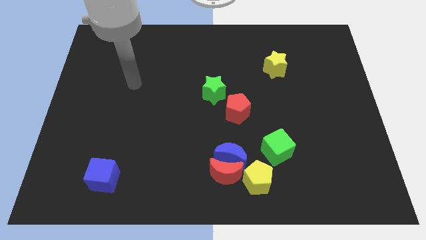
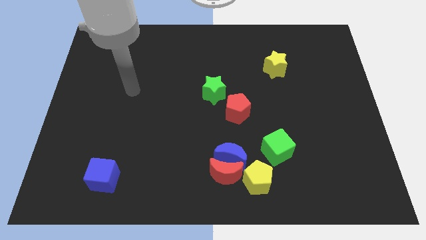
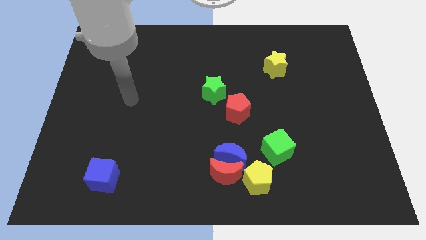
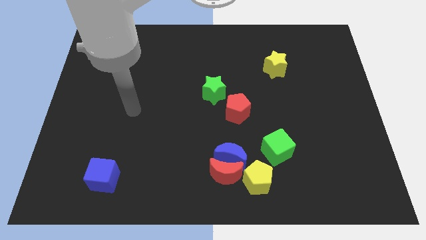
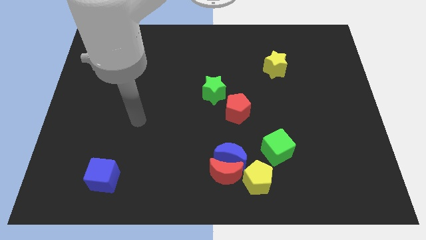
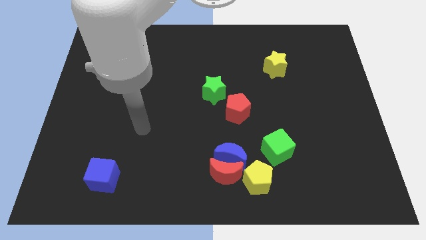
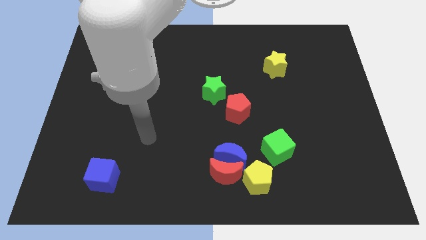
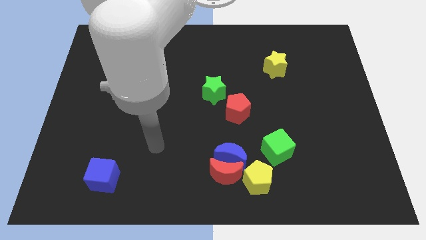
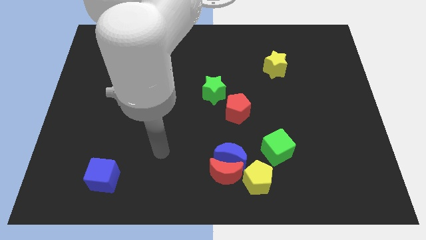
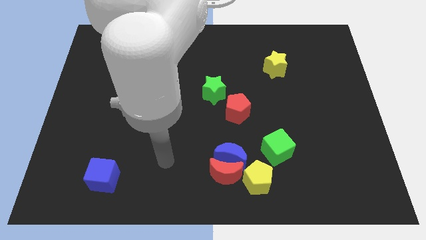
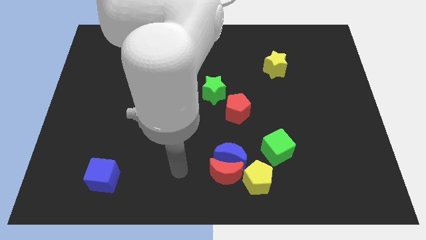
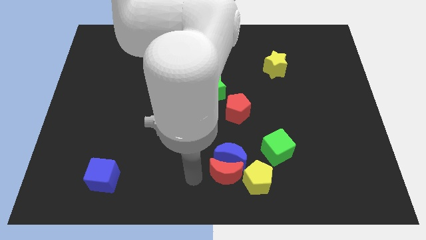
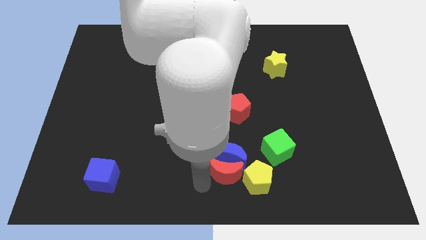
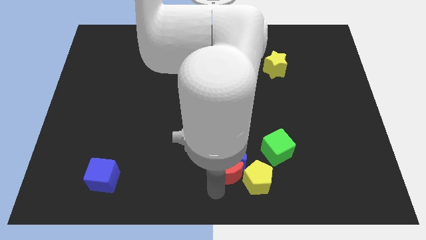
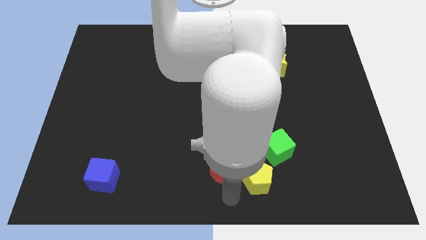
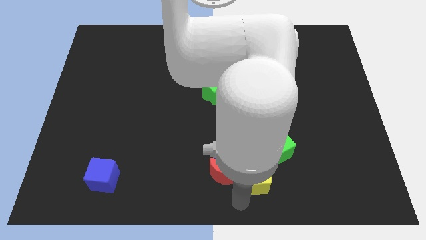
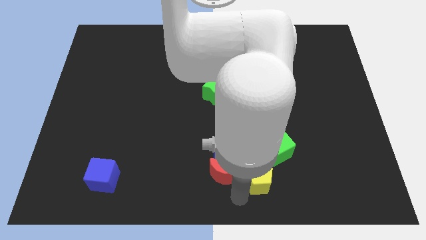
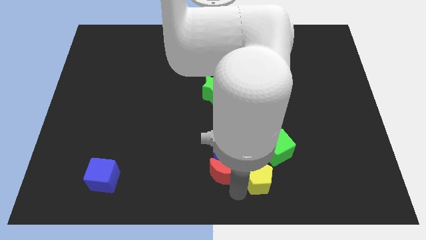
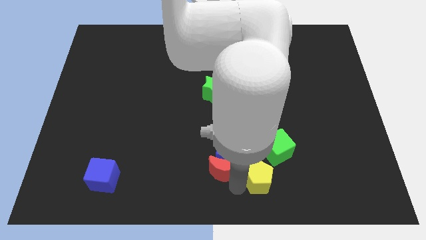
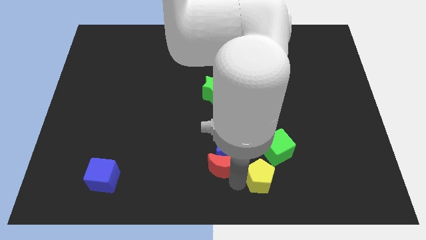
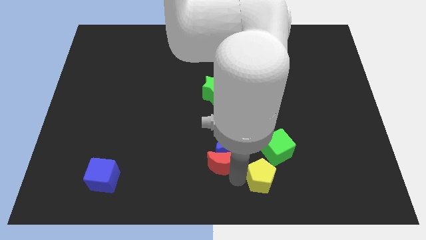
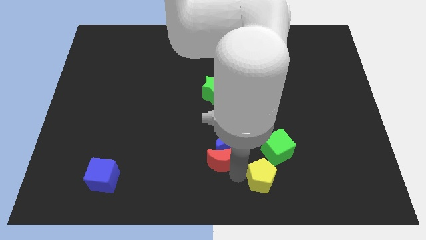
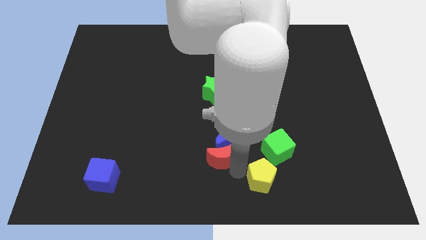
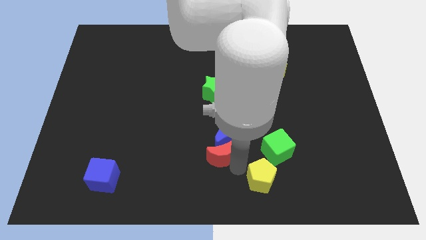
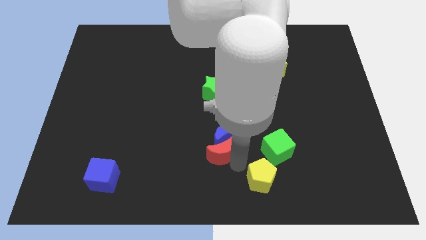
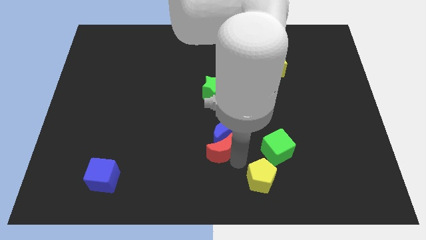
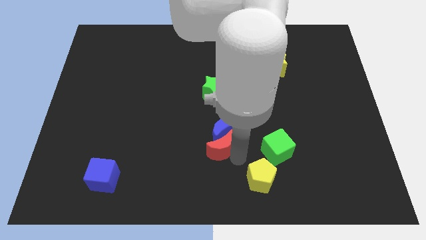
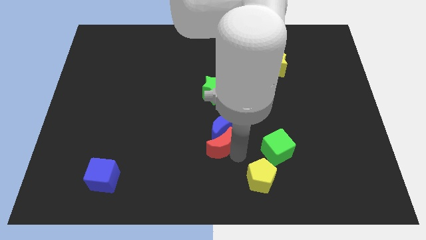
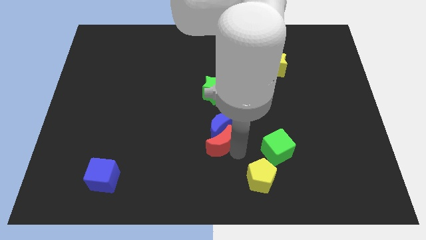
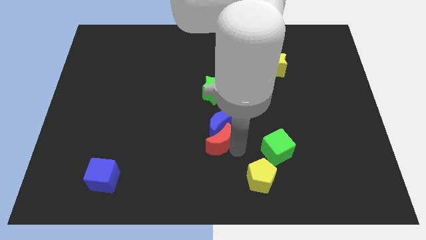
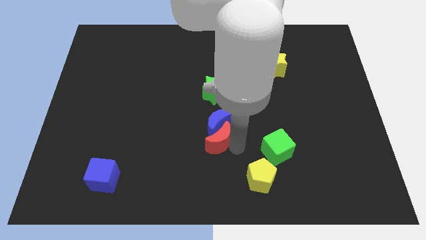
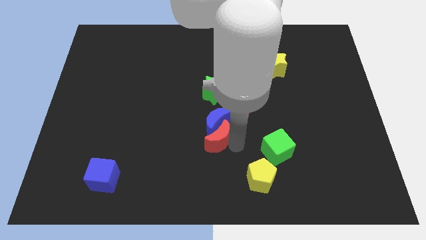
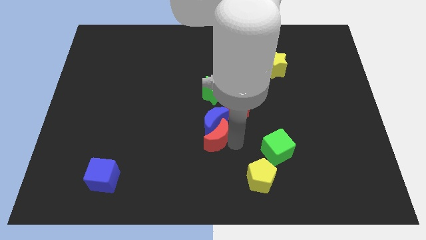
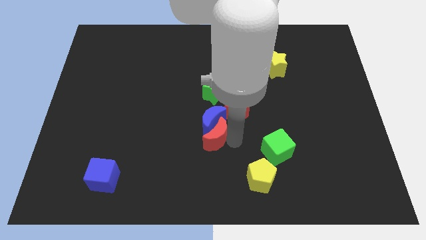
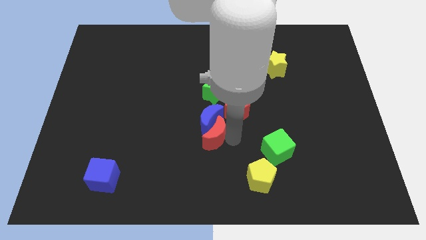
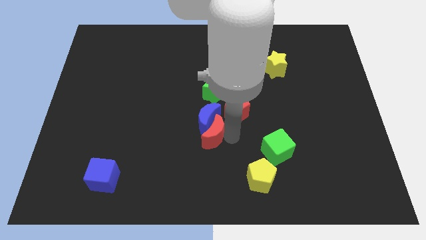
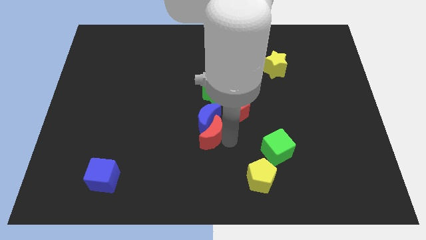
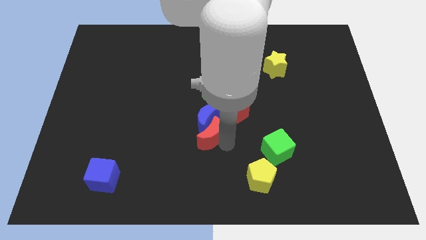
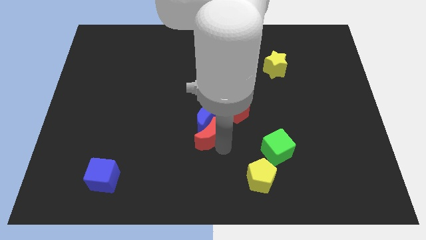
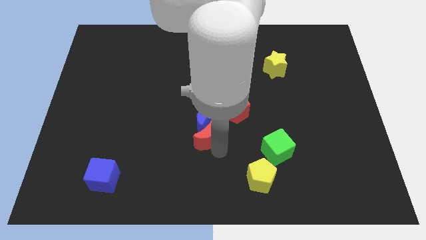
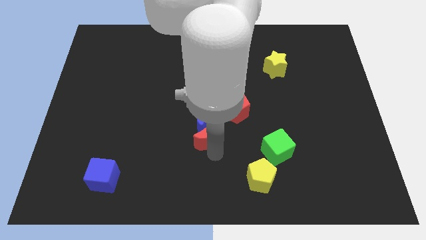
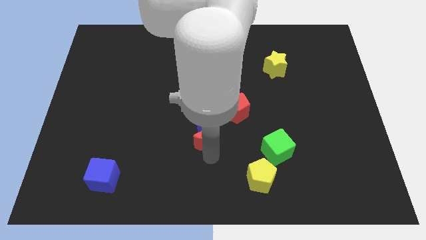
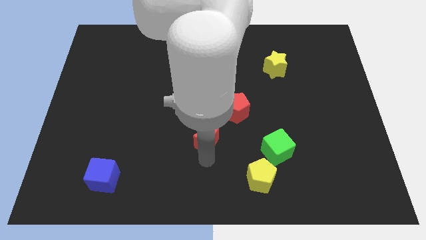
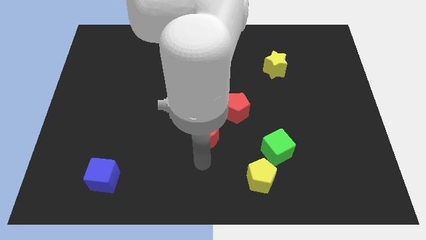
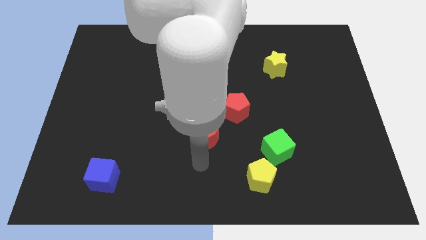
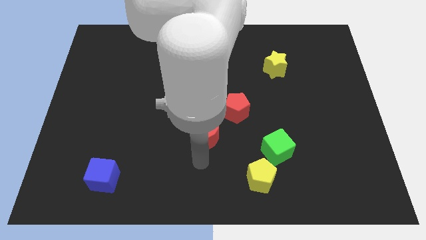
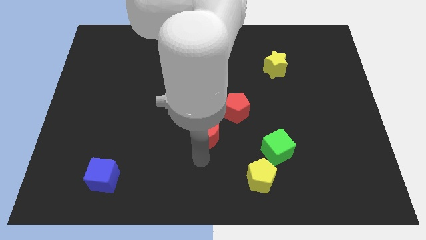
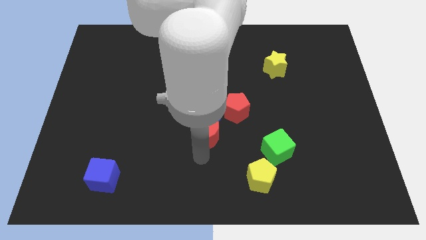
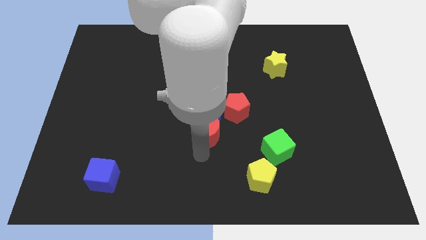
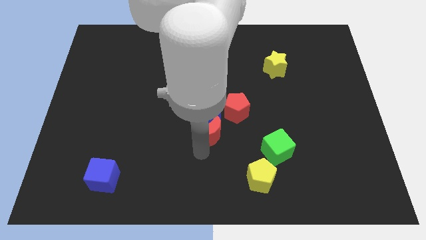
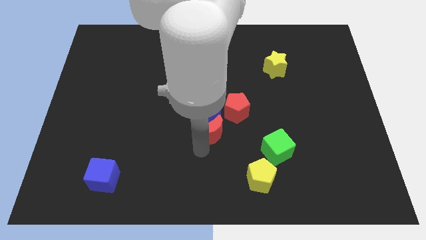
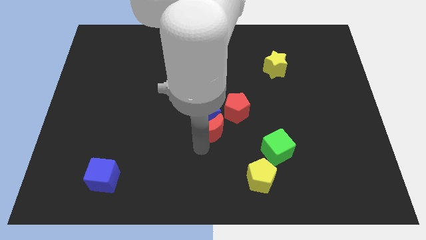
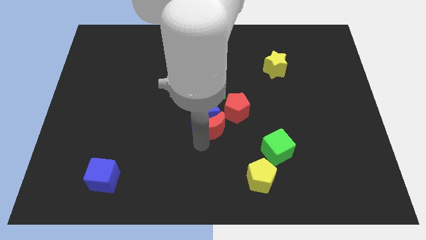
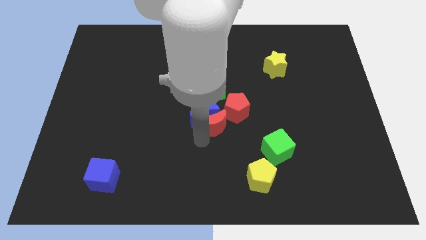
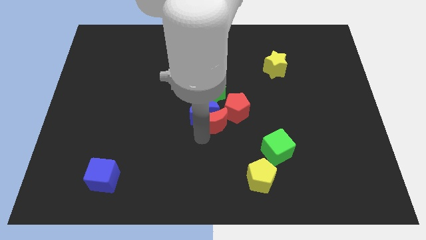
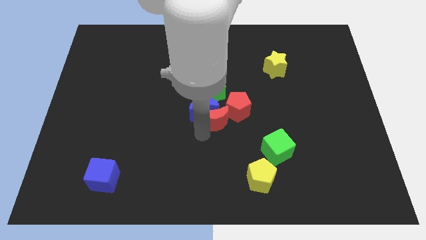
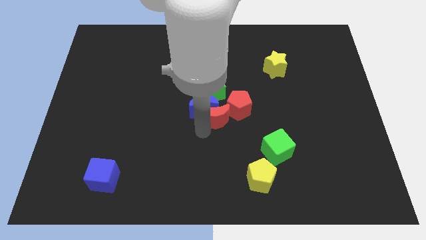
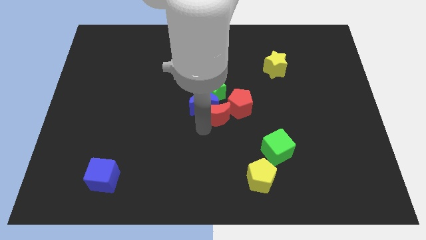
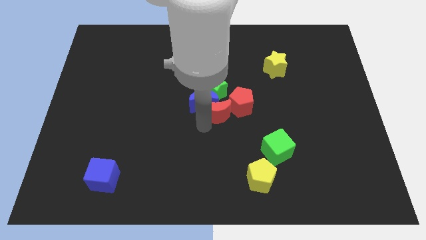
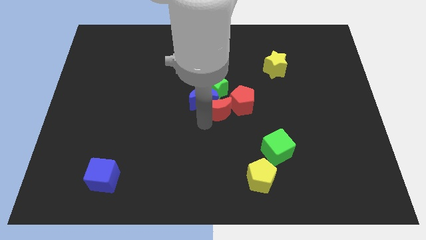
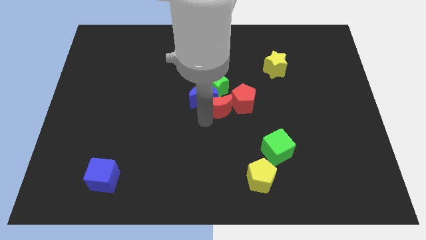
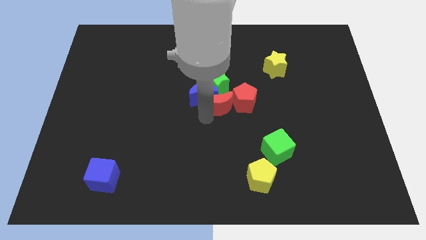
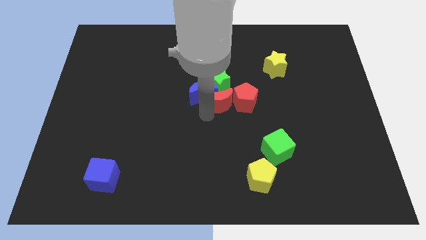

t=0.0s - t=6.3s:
put the red moon to the red pentagon

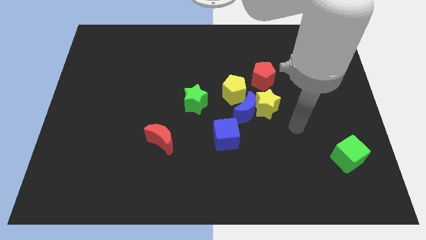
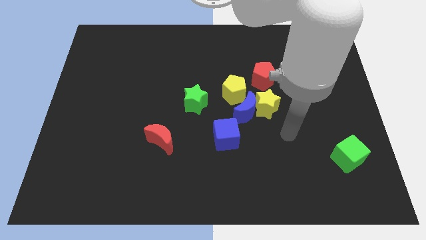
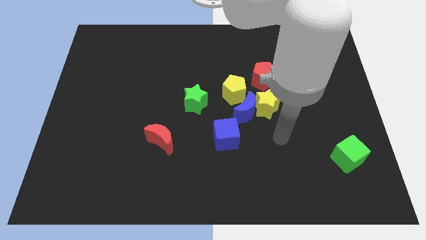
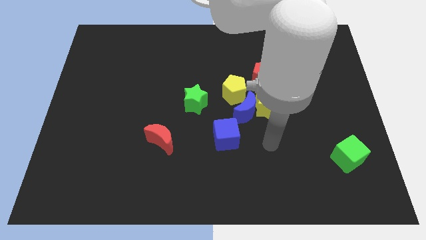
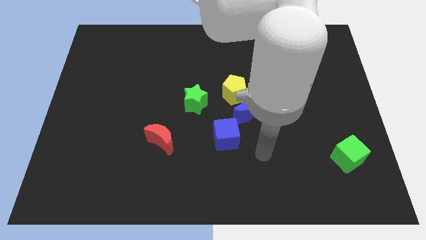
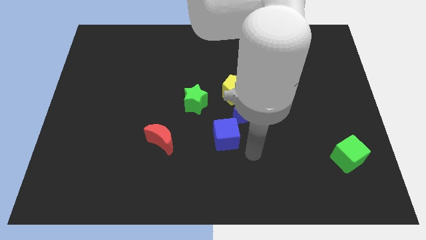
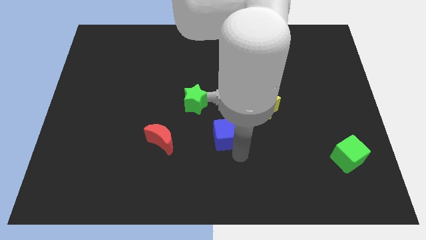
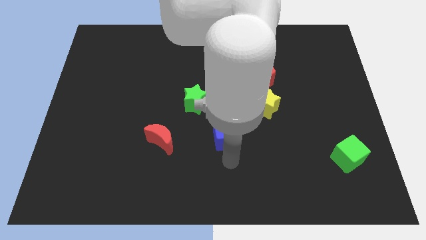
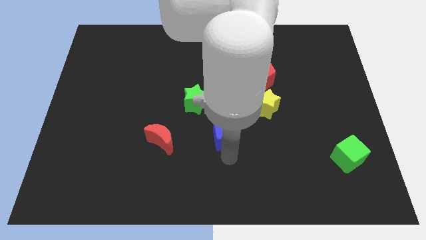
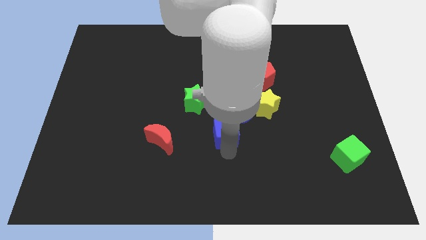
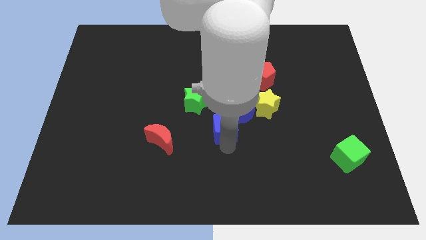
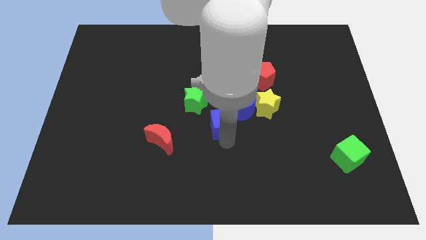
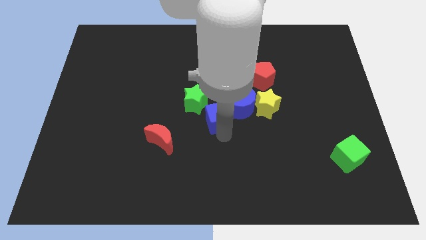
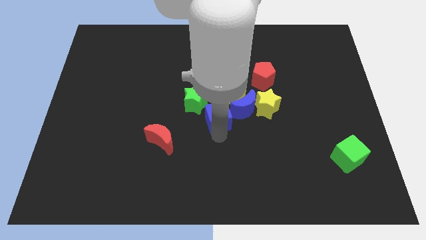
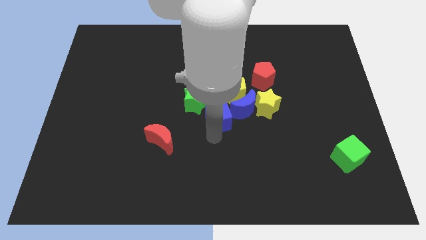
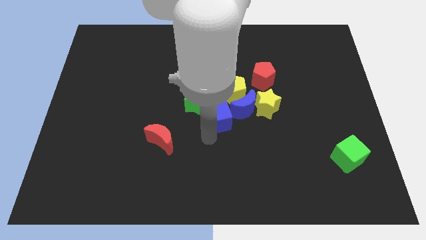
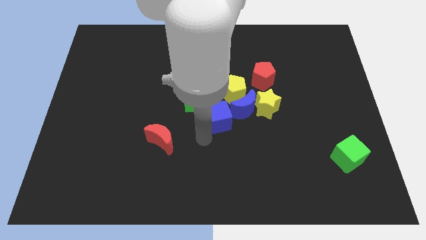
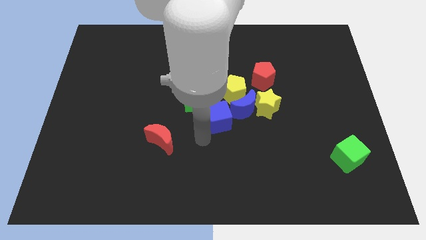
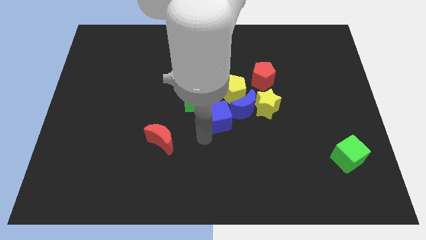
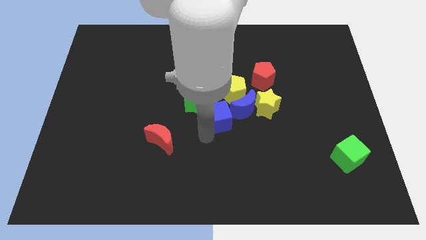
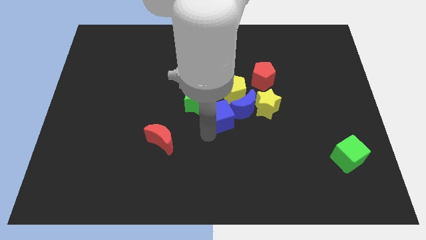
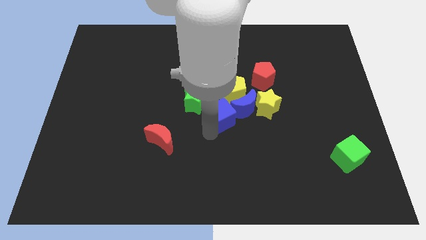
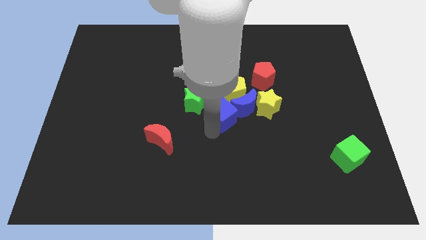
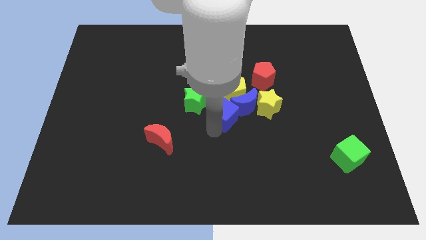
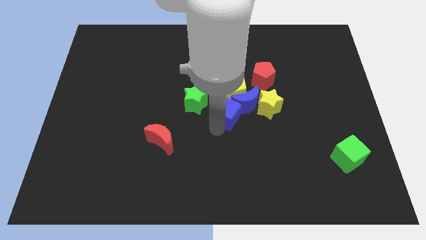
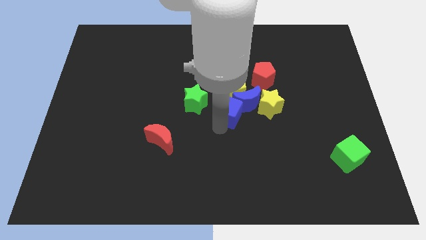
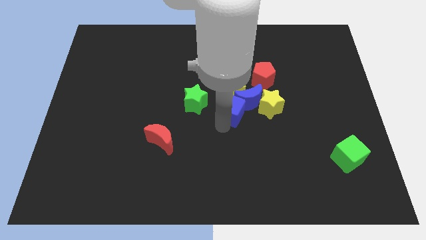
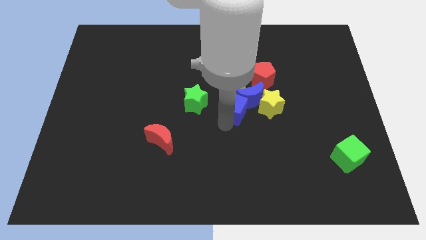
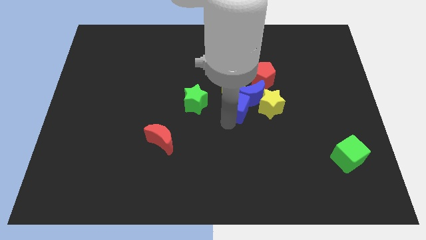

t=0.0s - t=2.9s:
move the blue cube close to the yellow pentagon
